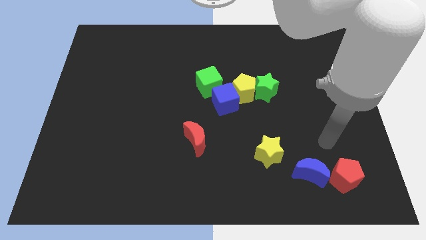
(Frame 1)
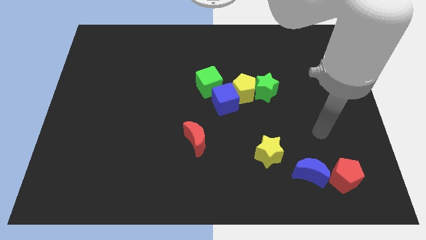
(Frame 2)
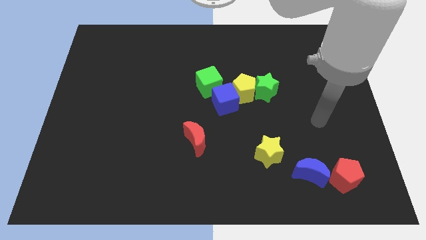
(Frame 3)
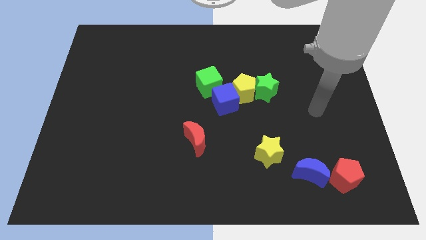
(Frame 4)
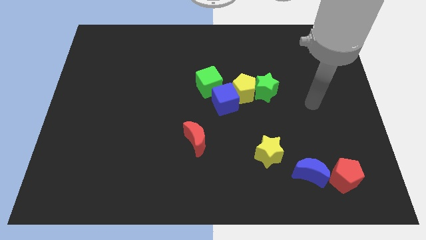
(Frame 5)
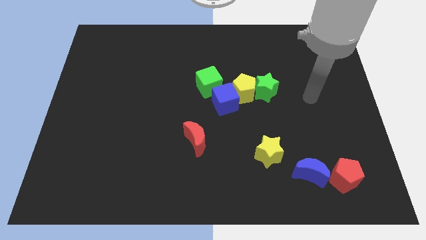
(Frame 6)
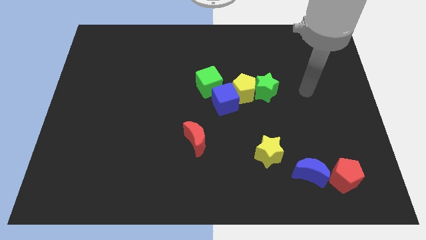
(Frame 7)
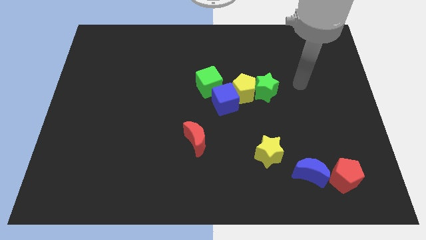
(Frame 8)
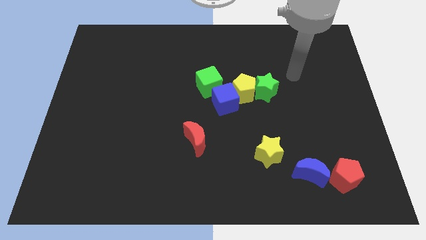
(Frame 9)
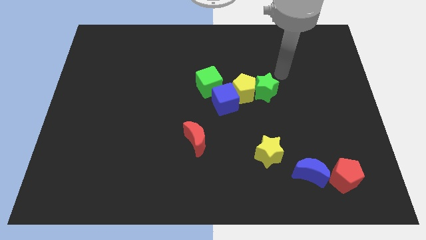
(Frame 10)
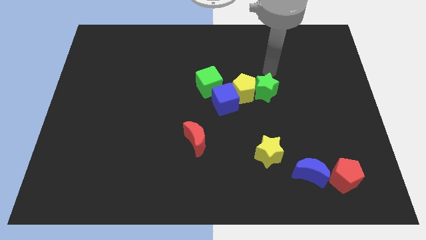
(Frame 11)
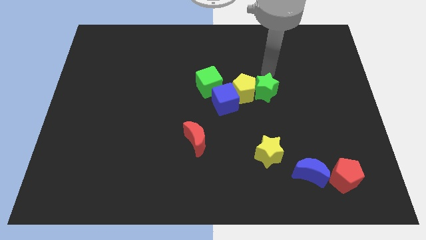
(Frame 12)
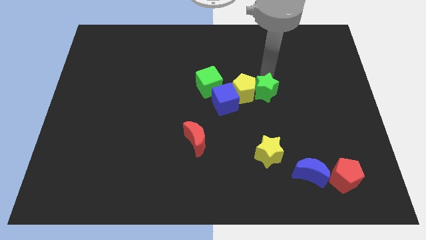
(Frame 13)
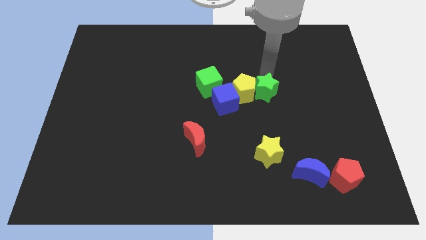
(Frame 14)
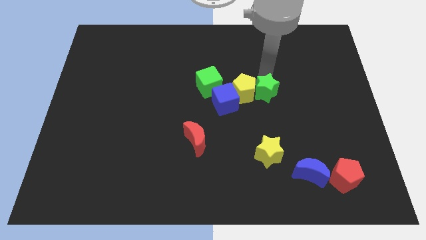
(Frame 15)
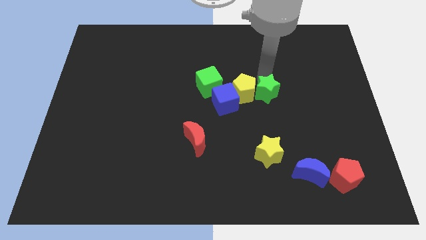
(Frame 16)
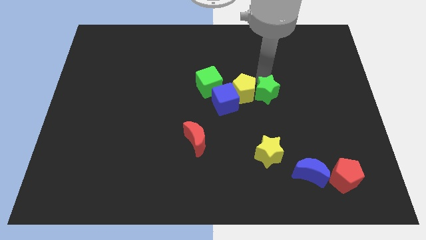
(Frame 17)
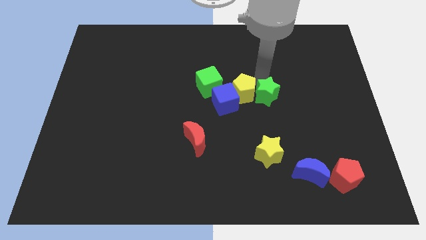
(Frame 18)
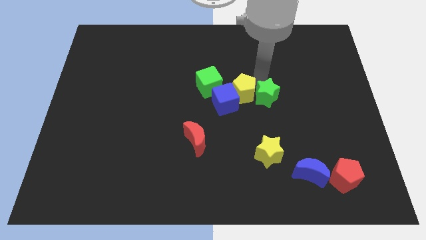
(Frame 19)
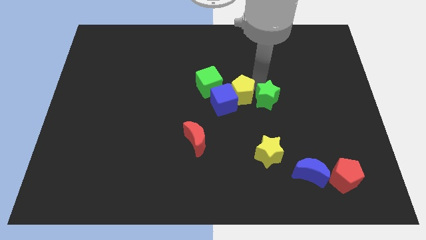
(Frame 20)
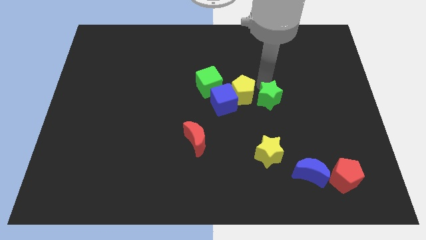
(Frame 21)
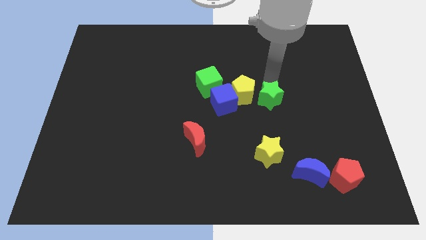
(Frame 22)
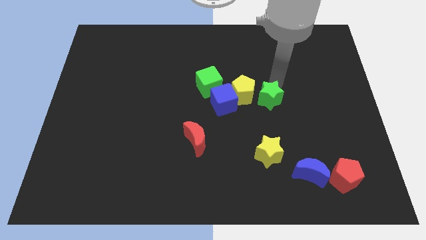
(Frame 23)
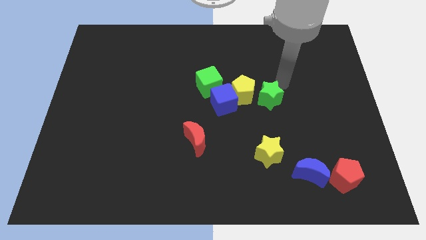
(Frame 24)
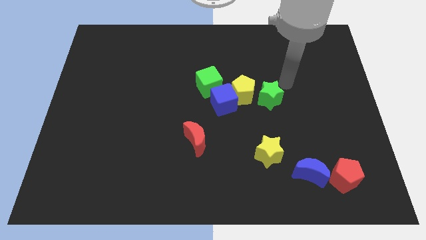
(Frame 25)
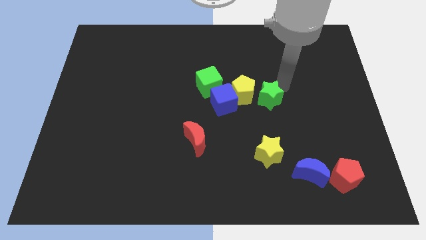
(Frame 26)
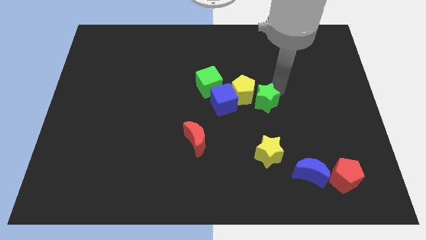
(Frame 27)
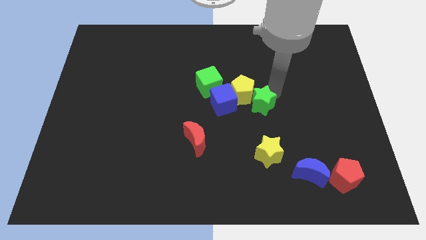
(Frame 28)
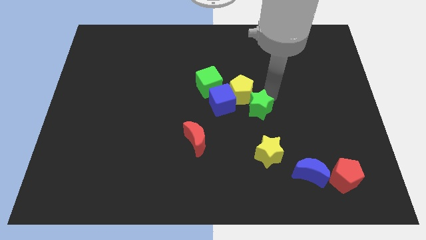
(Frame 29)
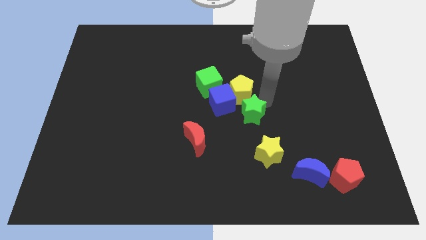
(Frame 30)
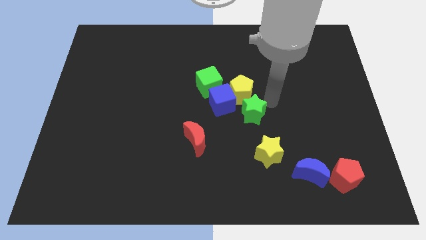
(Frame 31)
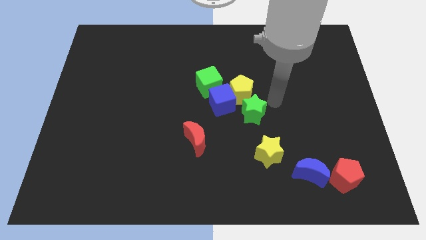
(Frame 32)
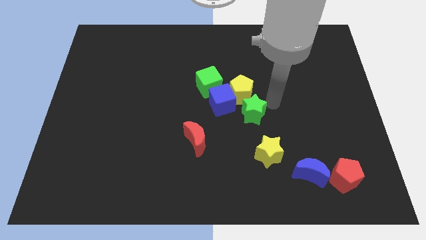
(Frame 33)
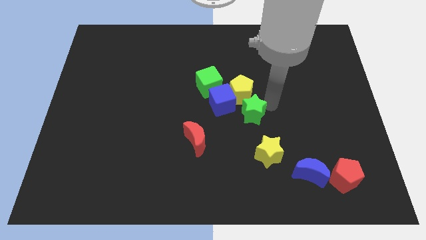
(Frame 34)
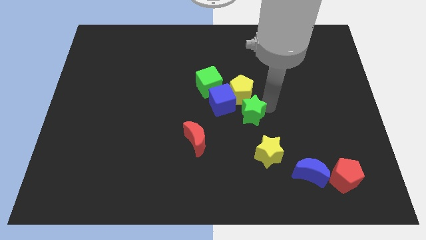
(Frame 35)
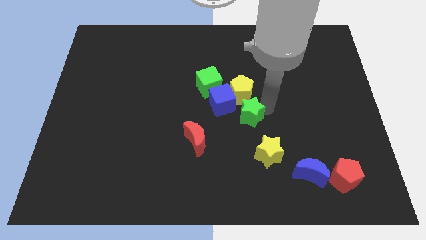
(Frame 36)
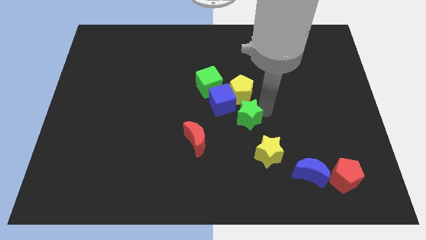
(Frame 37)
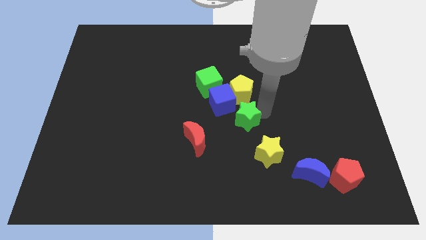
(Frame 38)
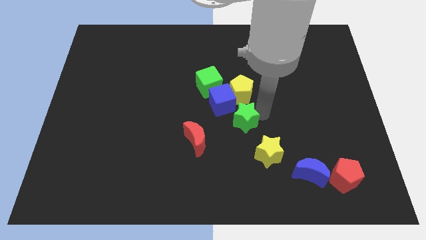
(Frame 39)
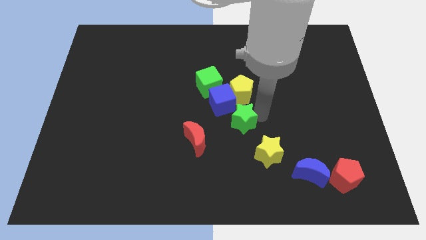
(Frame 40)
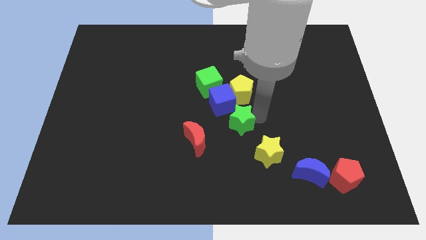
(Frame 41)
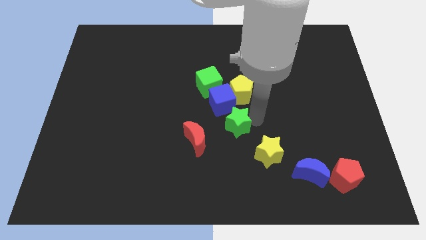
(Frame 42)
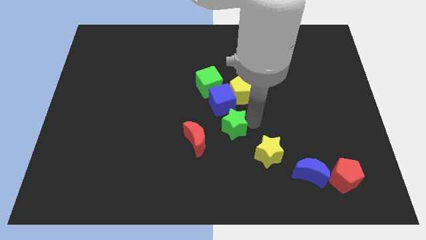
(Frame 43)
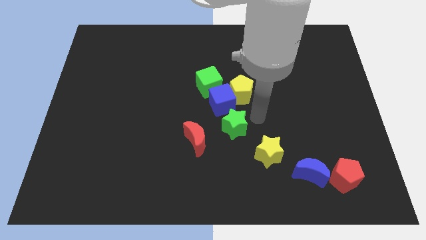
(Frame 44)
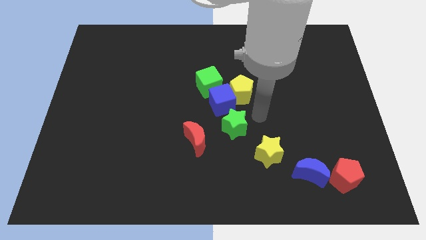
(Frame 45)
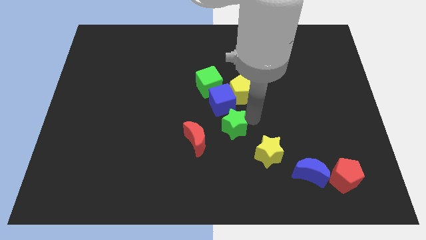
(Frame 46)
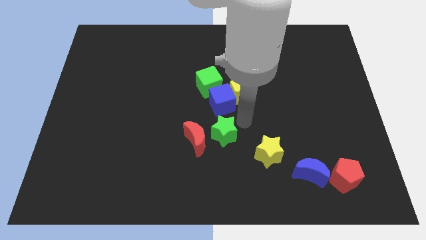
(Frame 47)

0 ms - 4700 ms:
put the green star close to the red moon

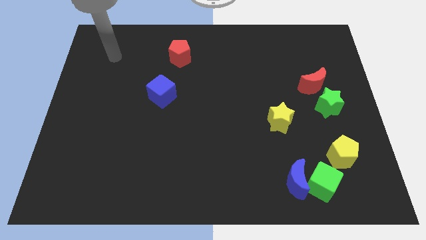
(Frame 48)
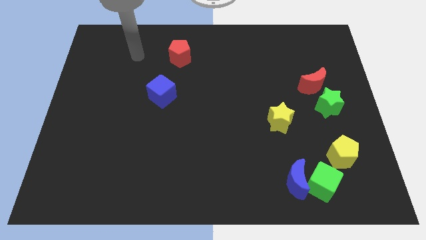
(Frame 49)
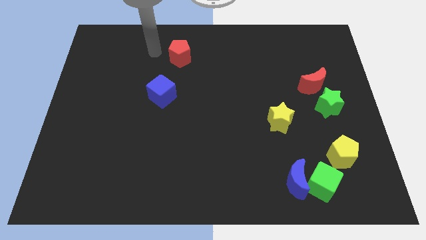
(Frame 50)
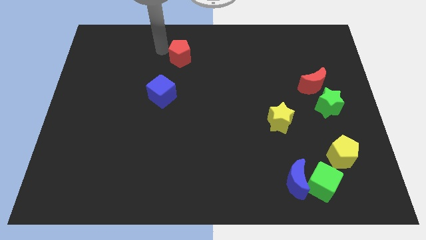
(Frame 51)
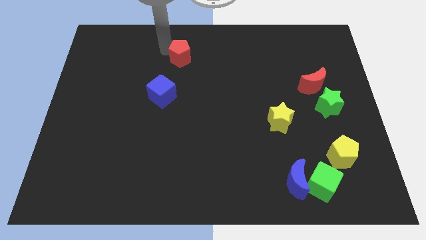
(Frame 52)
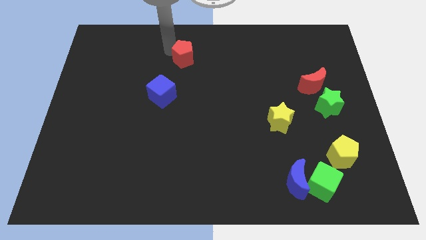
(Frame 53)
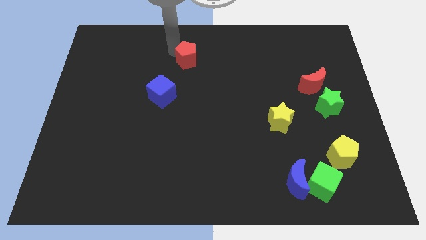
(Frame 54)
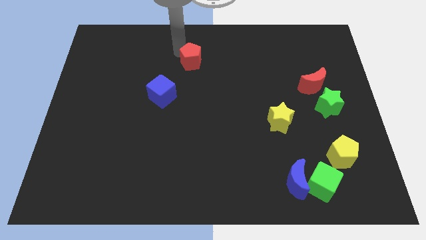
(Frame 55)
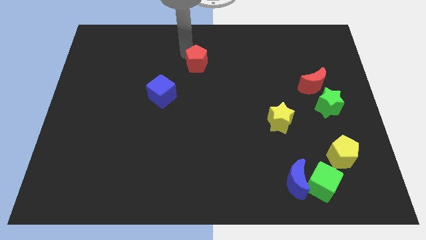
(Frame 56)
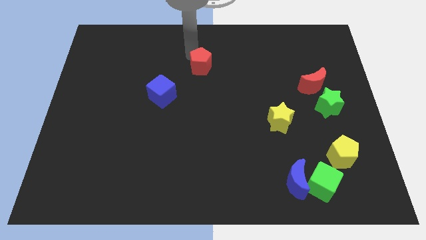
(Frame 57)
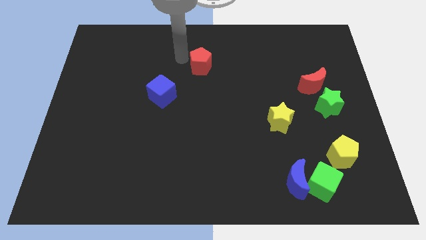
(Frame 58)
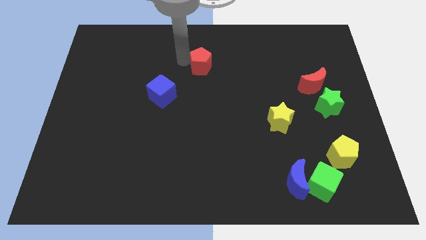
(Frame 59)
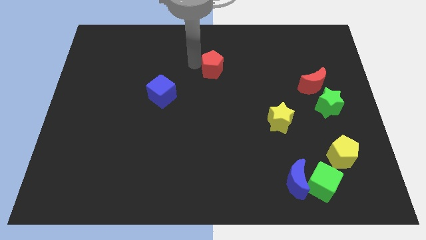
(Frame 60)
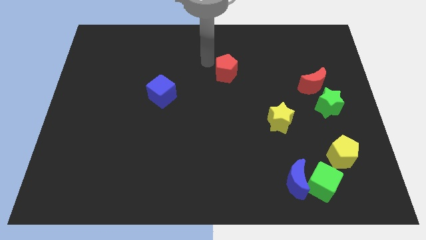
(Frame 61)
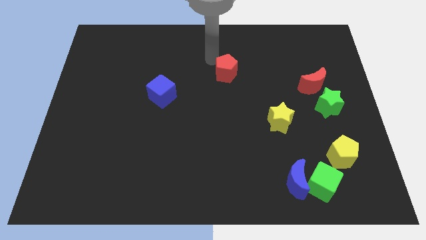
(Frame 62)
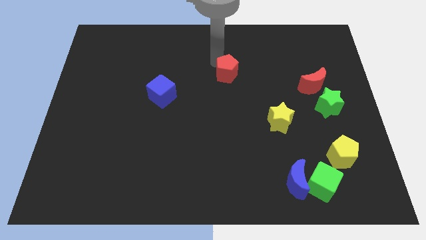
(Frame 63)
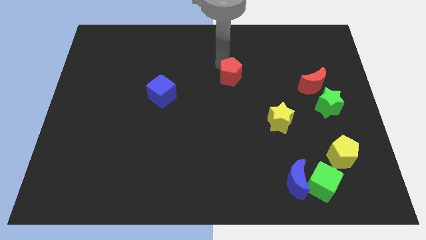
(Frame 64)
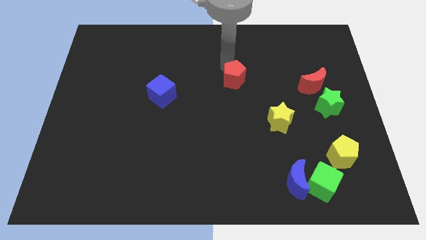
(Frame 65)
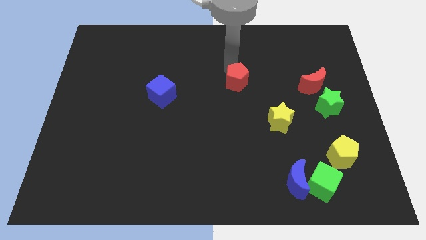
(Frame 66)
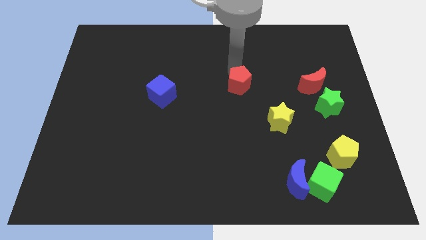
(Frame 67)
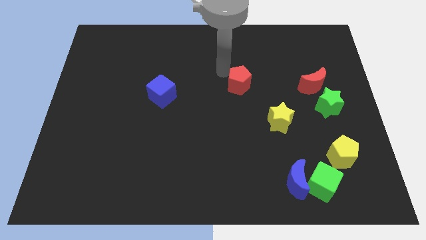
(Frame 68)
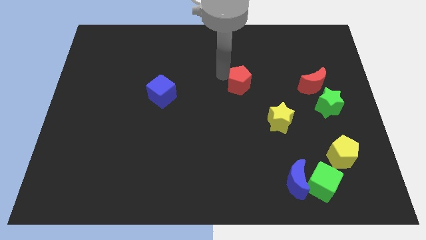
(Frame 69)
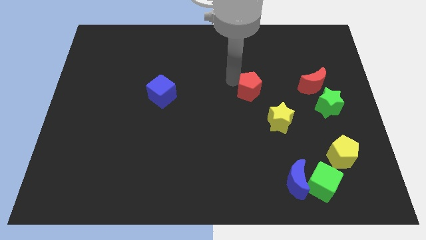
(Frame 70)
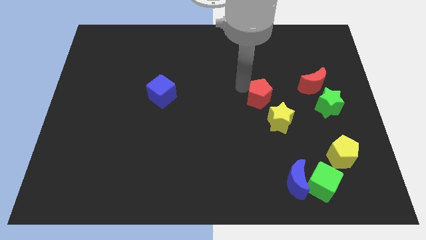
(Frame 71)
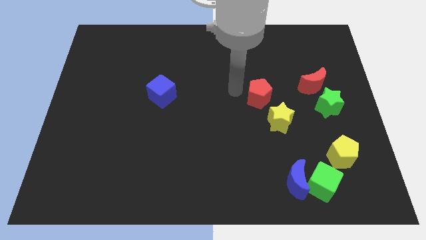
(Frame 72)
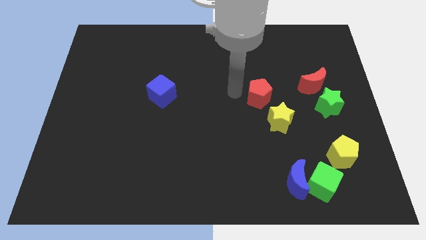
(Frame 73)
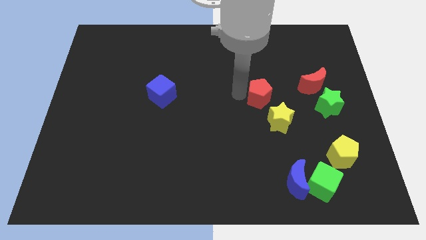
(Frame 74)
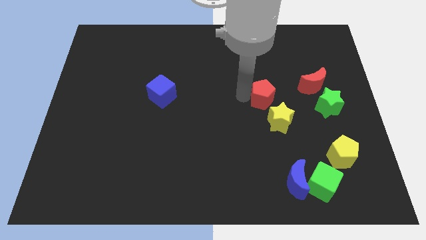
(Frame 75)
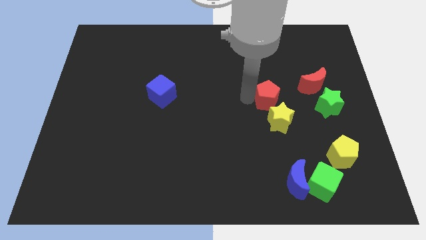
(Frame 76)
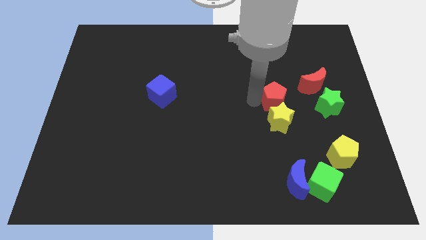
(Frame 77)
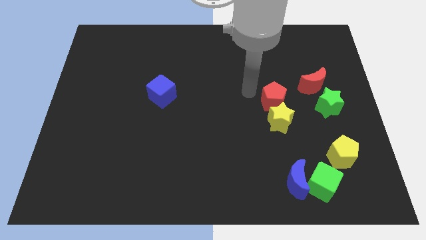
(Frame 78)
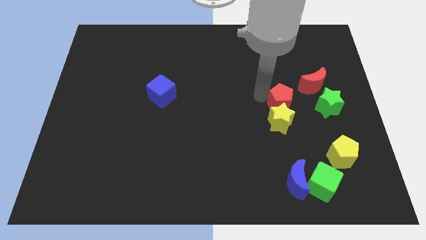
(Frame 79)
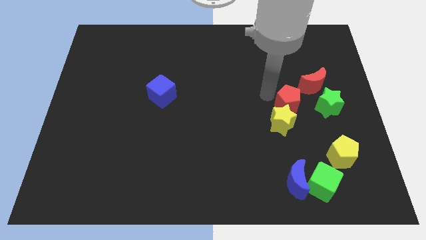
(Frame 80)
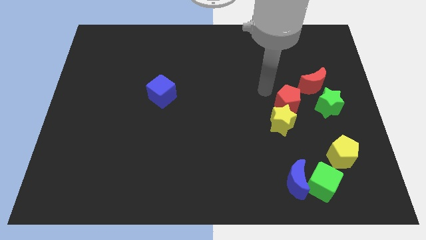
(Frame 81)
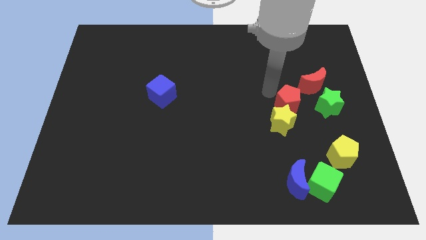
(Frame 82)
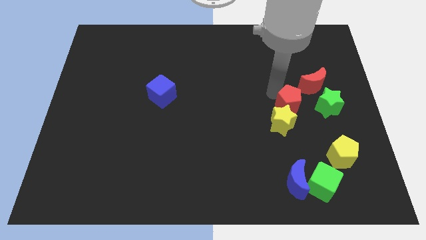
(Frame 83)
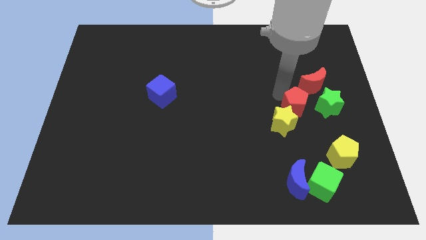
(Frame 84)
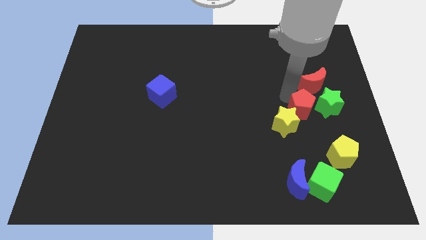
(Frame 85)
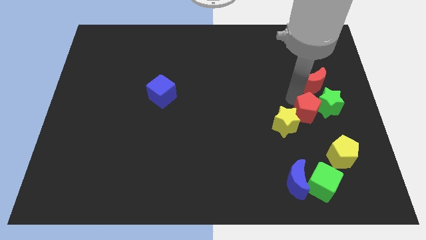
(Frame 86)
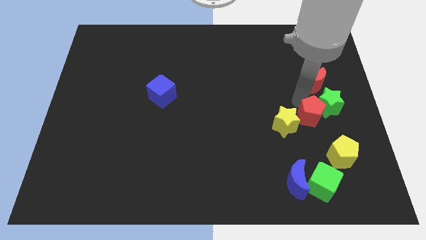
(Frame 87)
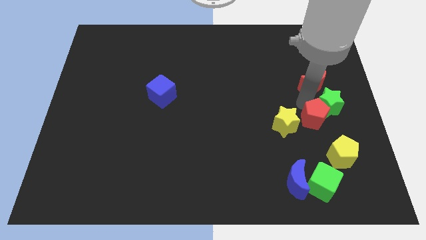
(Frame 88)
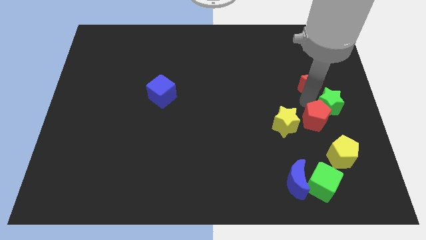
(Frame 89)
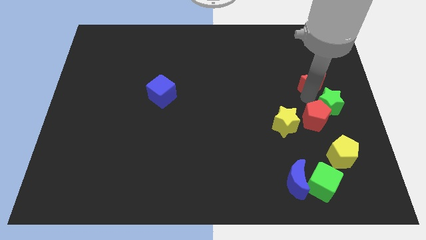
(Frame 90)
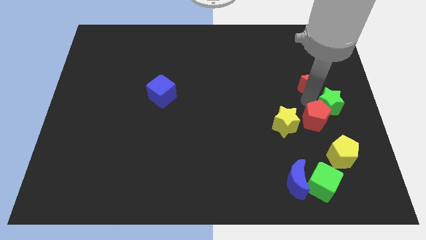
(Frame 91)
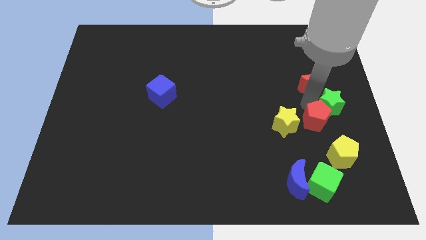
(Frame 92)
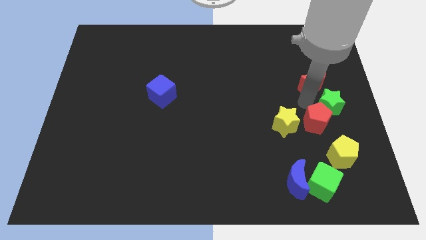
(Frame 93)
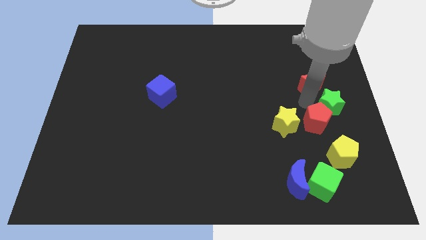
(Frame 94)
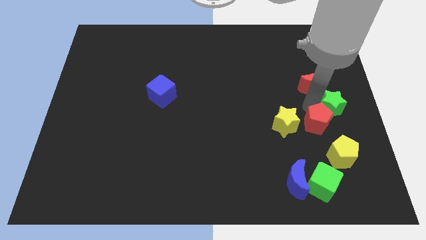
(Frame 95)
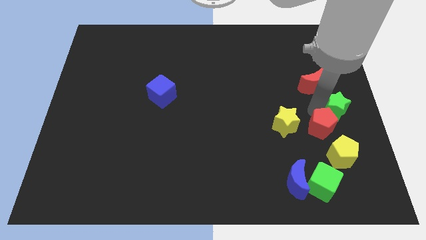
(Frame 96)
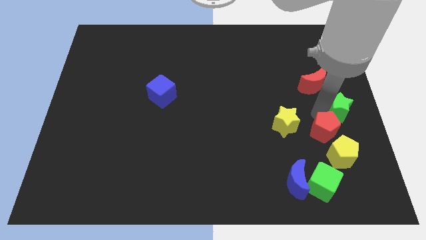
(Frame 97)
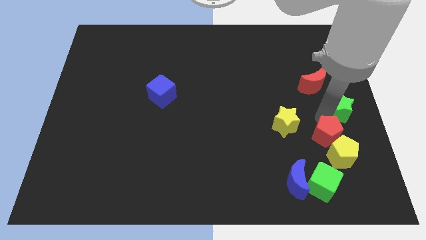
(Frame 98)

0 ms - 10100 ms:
push the red pentagon next to the yellow pentagon
